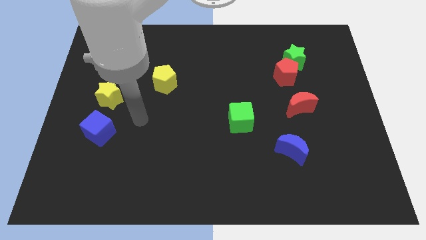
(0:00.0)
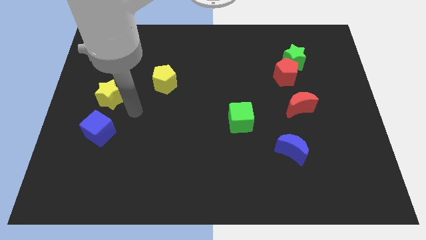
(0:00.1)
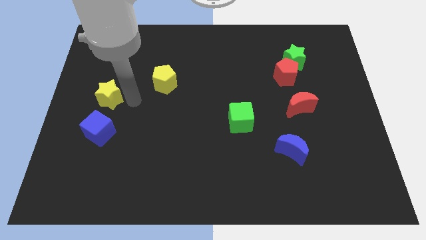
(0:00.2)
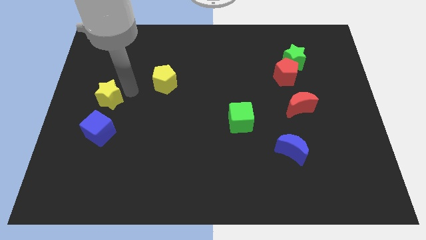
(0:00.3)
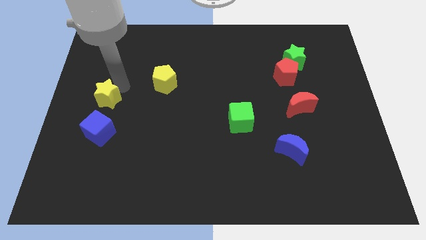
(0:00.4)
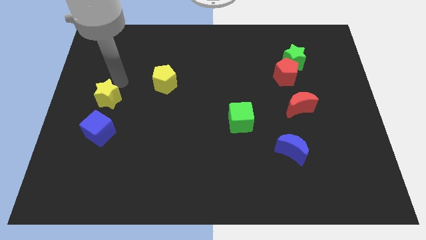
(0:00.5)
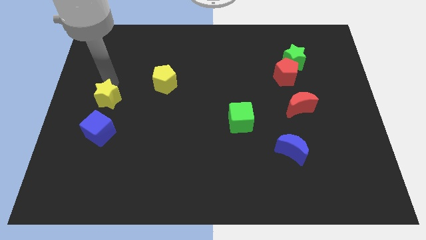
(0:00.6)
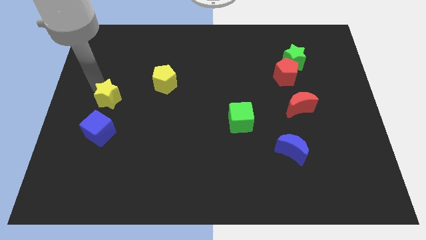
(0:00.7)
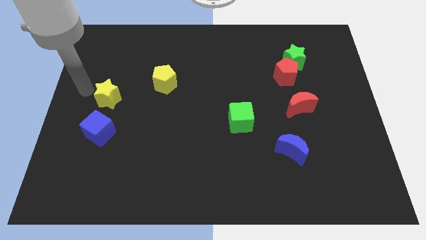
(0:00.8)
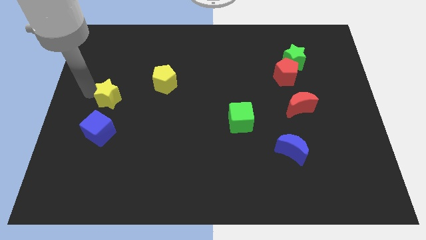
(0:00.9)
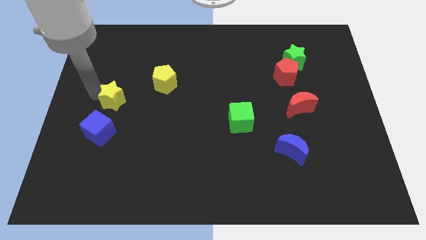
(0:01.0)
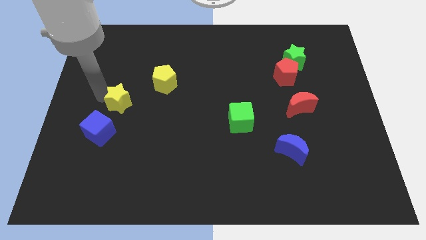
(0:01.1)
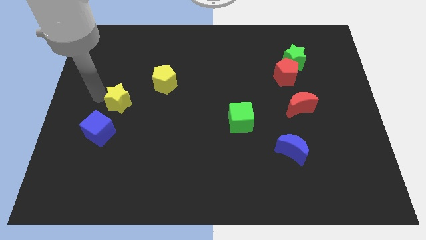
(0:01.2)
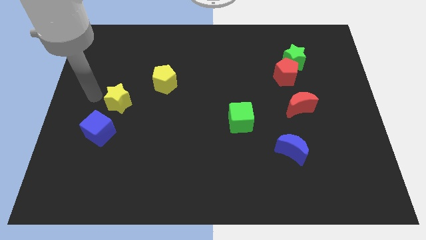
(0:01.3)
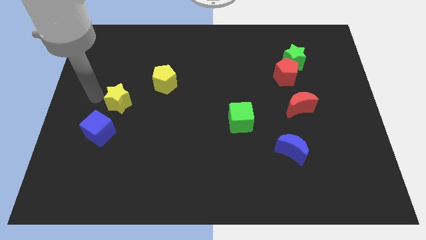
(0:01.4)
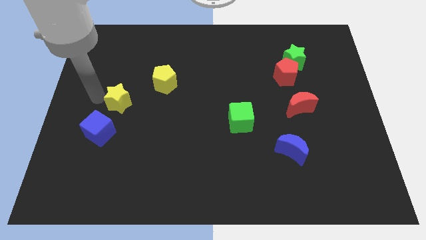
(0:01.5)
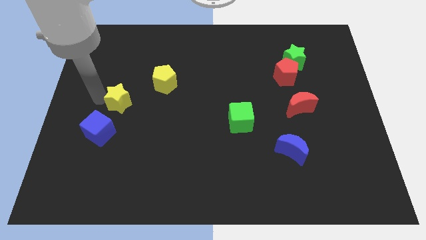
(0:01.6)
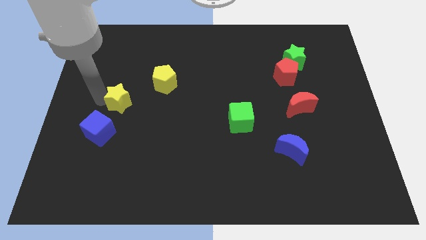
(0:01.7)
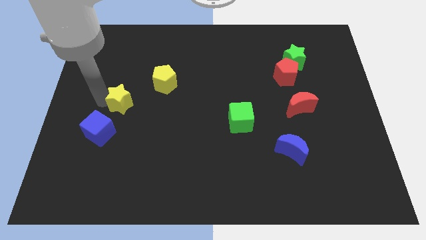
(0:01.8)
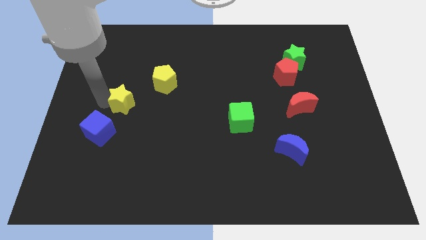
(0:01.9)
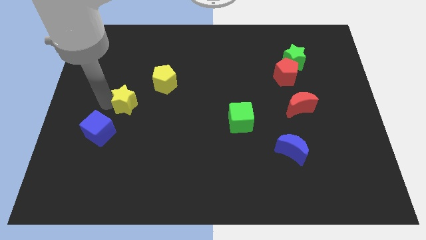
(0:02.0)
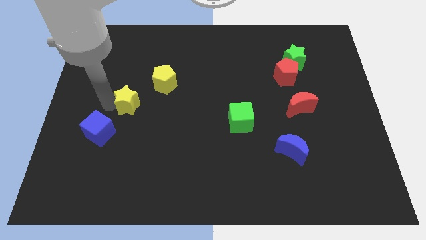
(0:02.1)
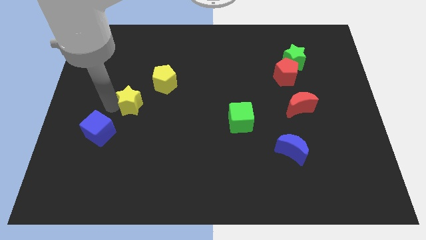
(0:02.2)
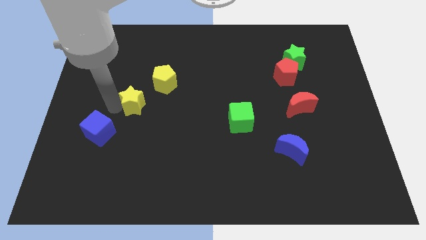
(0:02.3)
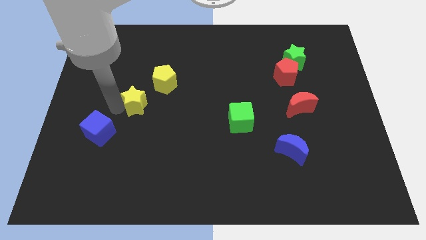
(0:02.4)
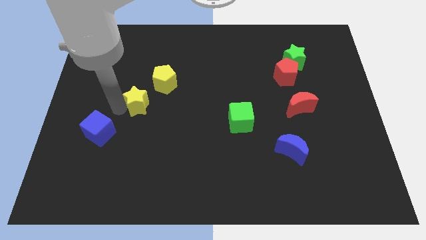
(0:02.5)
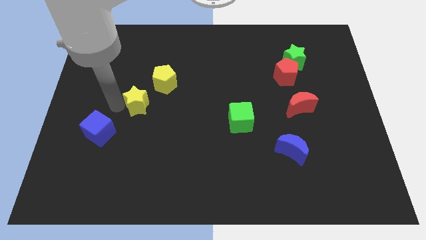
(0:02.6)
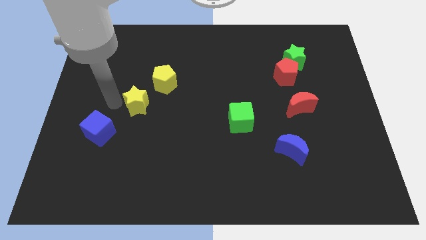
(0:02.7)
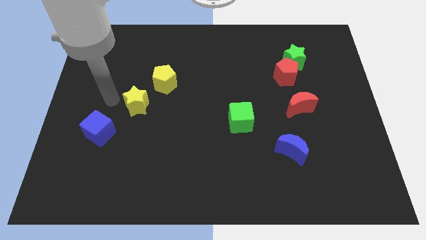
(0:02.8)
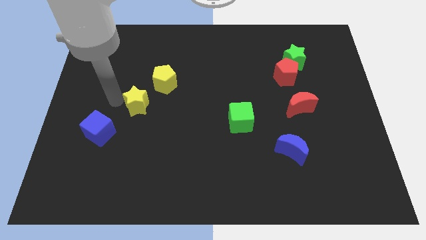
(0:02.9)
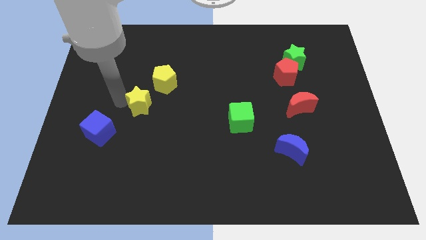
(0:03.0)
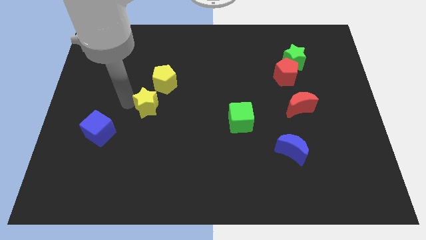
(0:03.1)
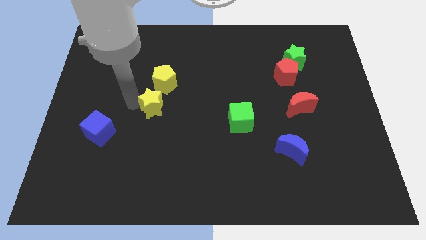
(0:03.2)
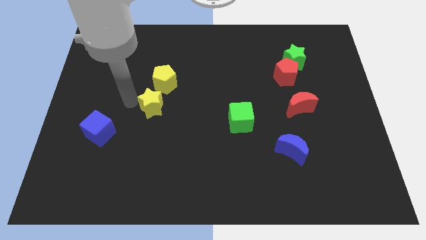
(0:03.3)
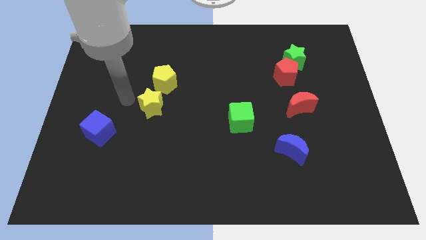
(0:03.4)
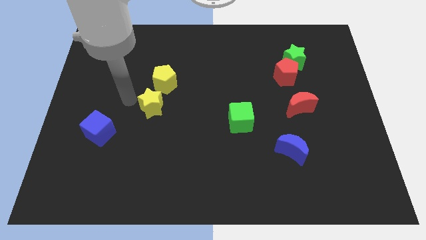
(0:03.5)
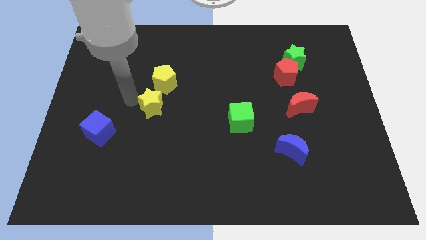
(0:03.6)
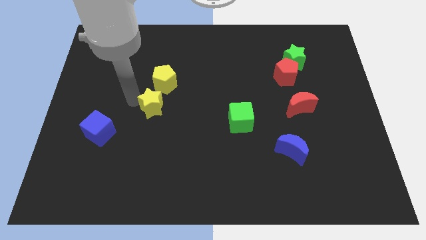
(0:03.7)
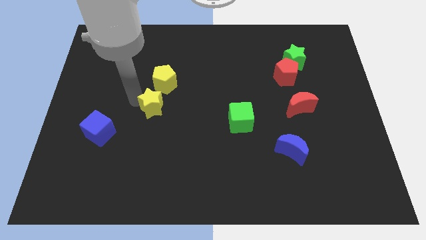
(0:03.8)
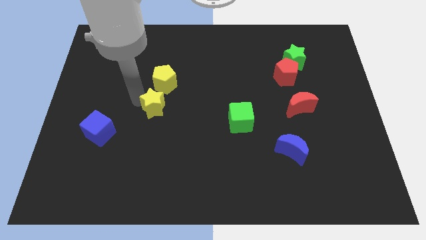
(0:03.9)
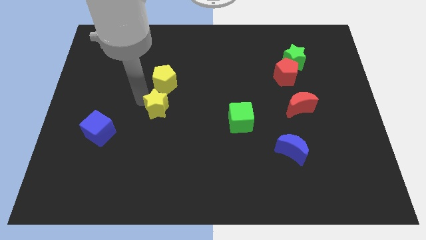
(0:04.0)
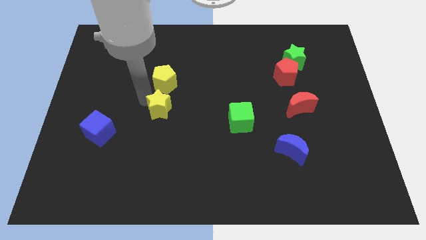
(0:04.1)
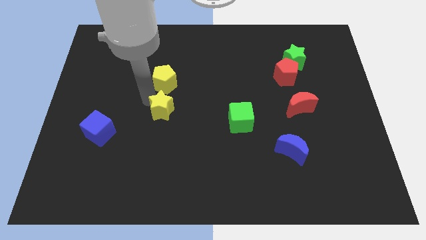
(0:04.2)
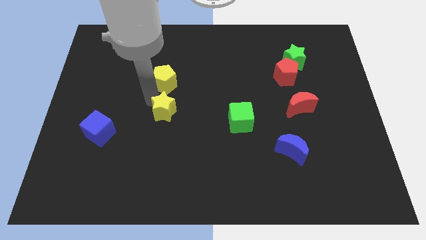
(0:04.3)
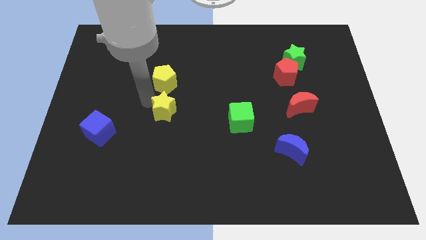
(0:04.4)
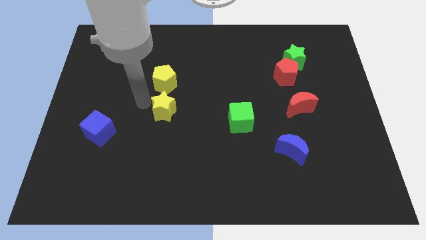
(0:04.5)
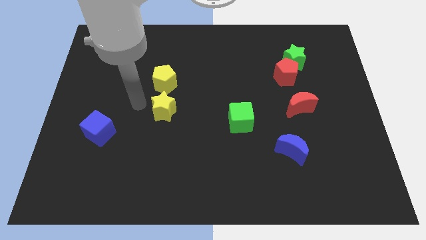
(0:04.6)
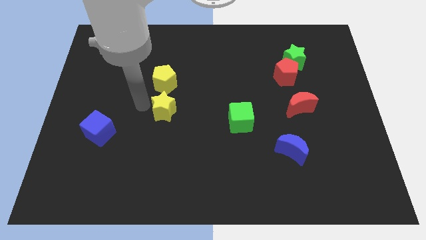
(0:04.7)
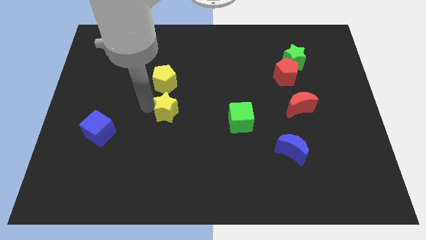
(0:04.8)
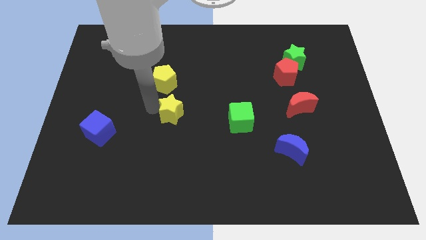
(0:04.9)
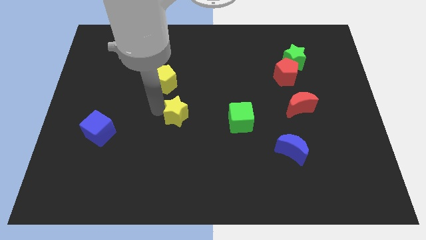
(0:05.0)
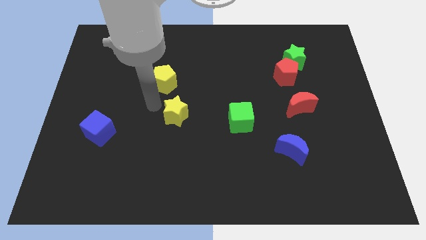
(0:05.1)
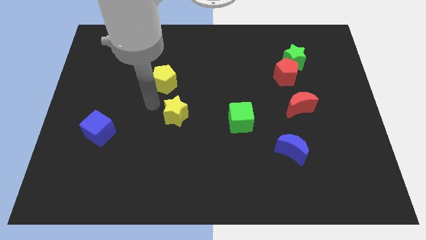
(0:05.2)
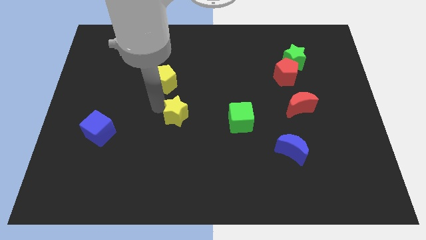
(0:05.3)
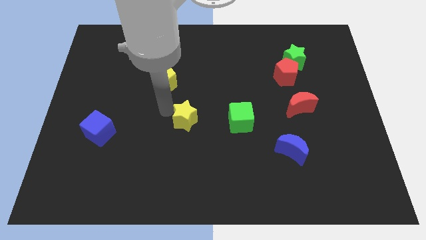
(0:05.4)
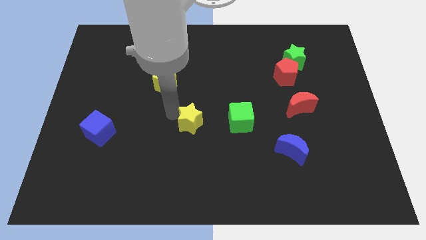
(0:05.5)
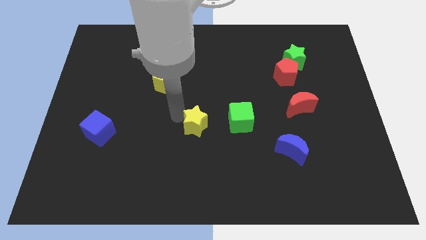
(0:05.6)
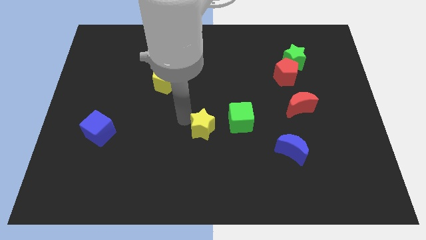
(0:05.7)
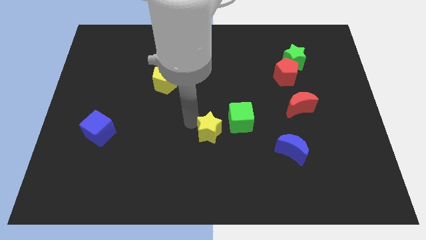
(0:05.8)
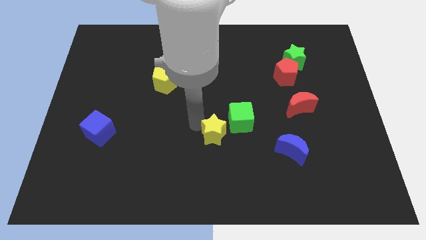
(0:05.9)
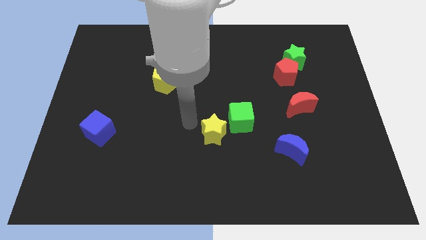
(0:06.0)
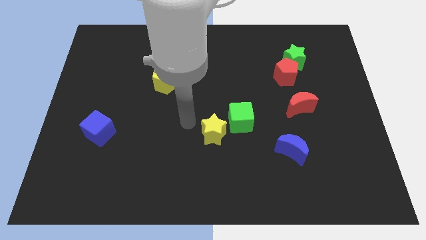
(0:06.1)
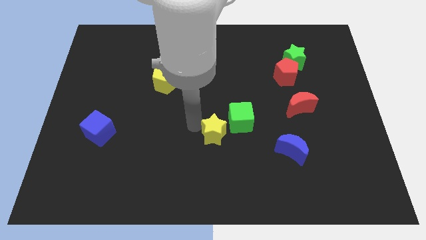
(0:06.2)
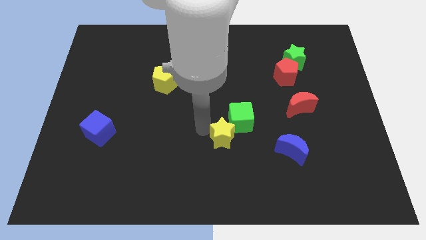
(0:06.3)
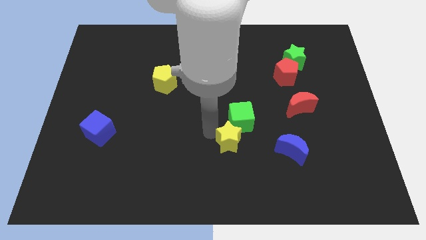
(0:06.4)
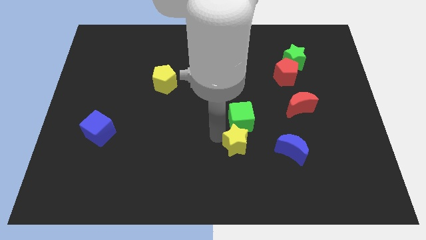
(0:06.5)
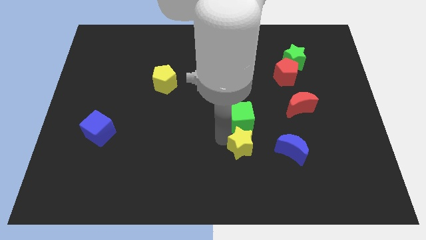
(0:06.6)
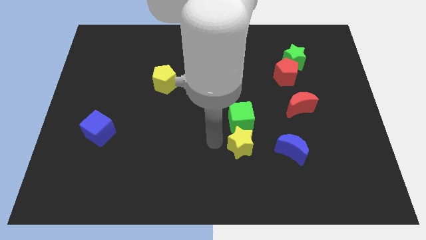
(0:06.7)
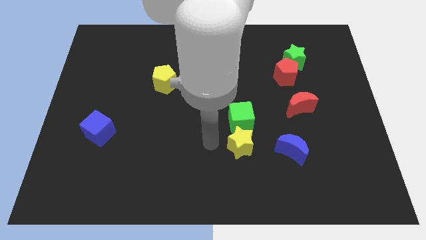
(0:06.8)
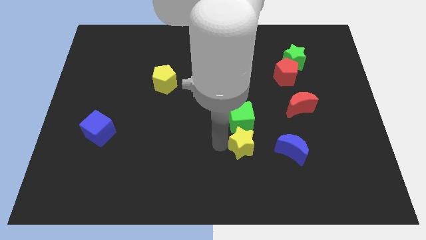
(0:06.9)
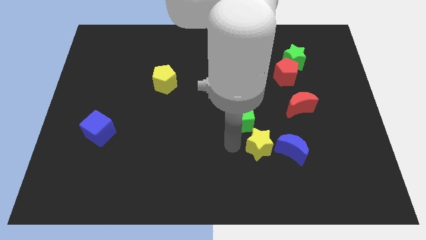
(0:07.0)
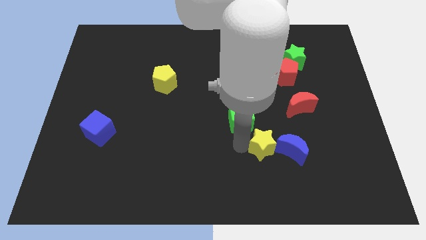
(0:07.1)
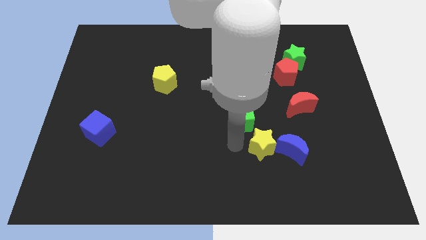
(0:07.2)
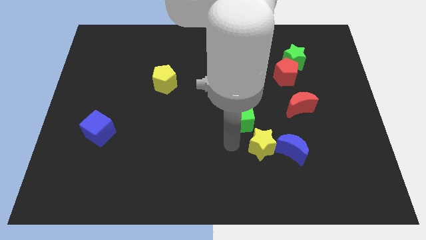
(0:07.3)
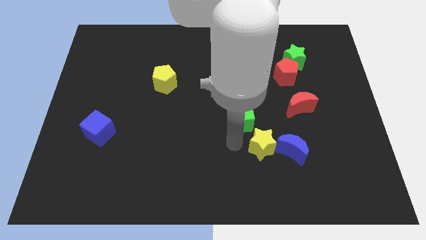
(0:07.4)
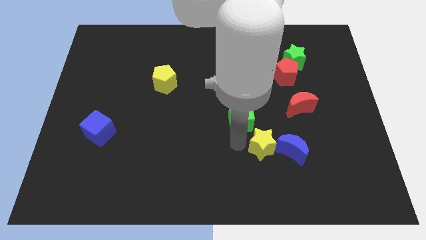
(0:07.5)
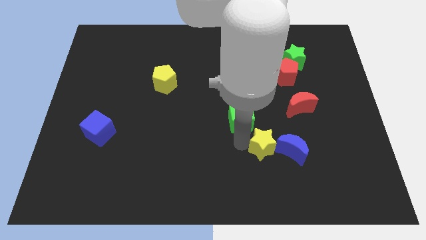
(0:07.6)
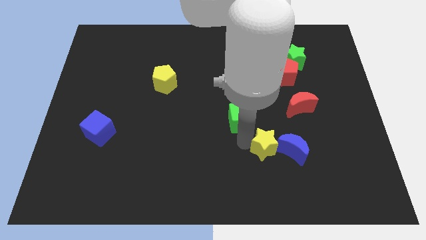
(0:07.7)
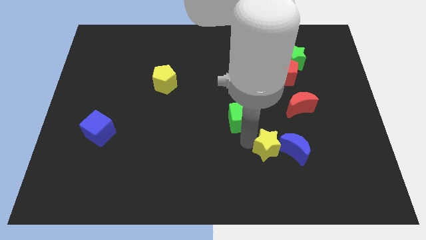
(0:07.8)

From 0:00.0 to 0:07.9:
put the yellow star close to the blue moon
